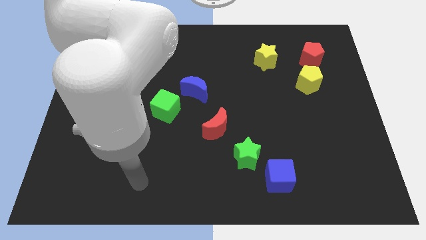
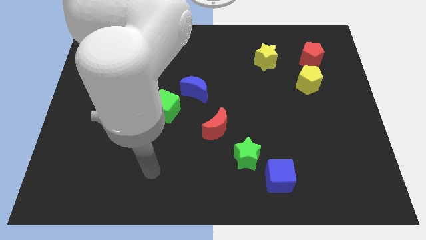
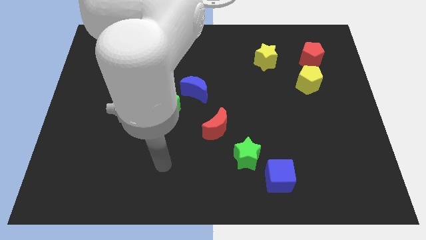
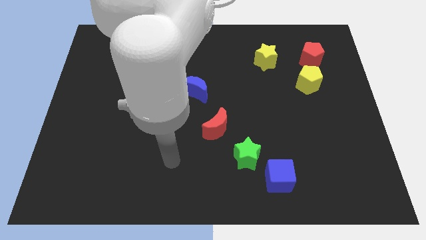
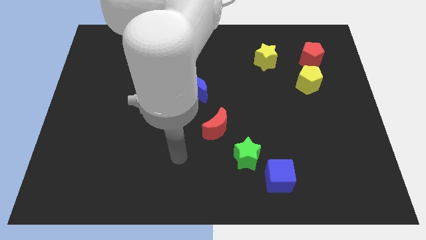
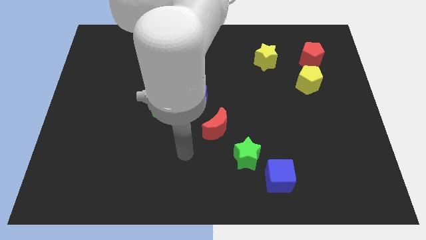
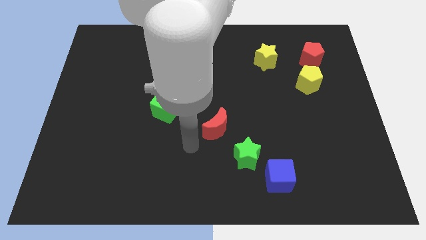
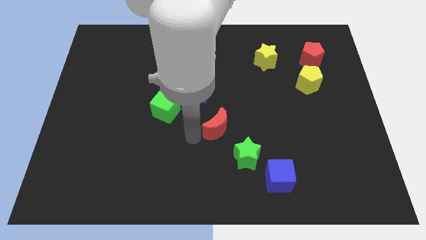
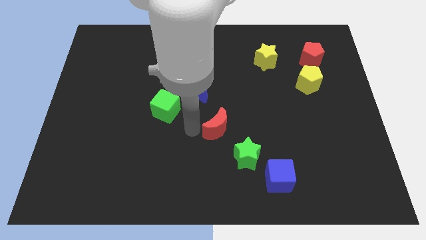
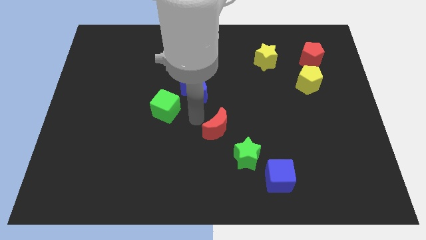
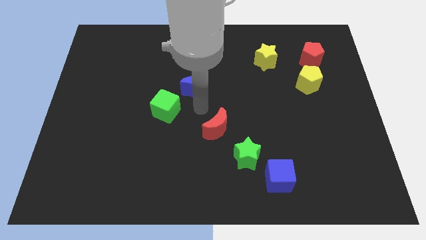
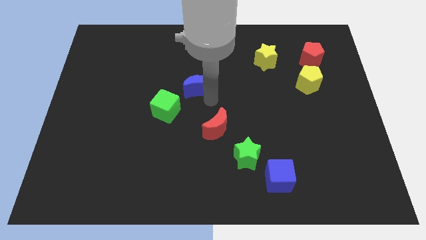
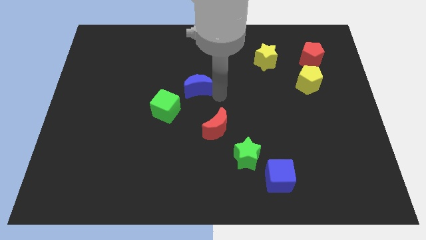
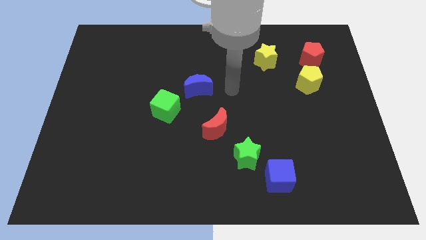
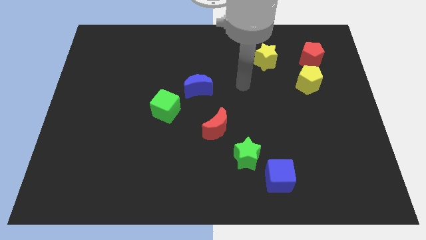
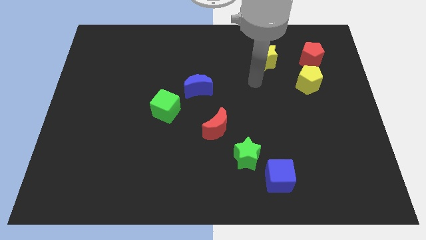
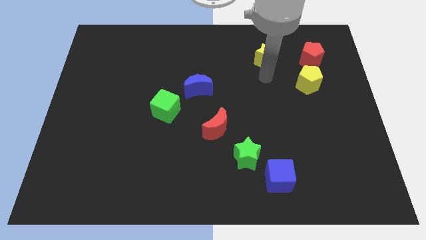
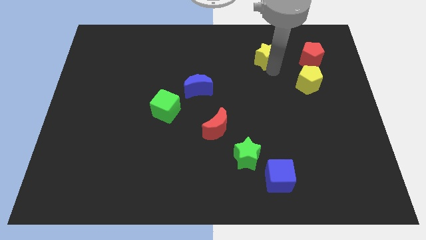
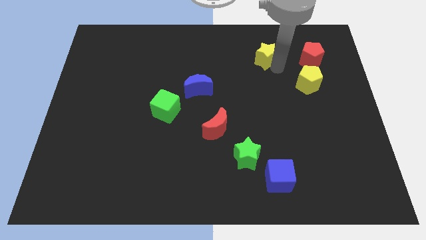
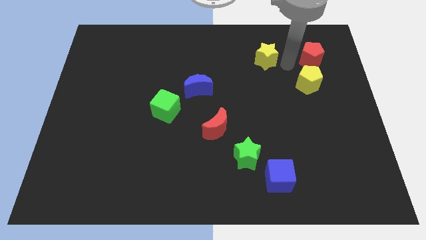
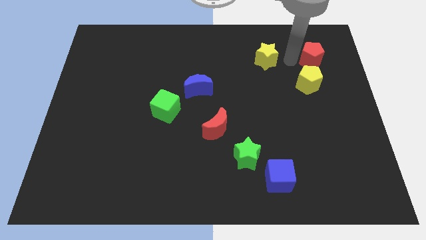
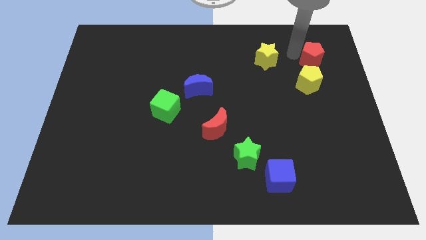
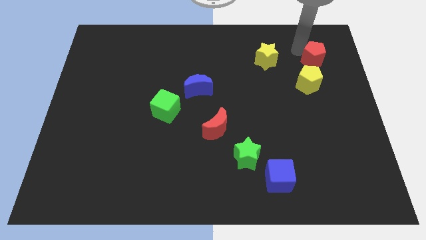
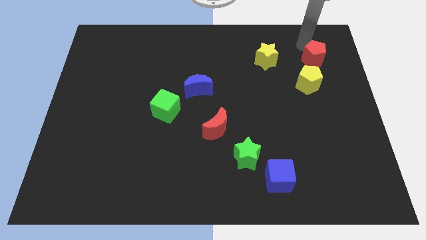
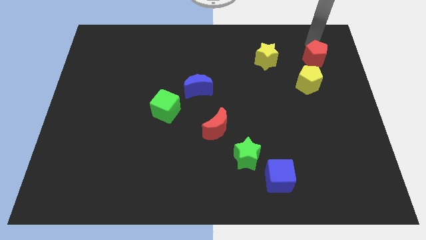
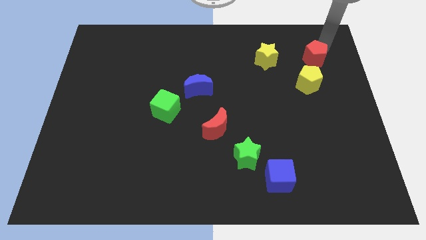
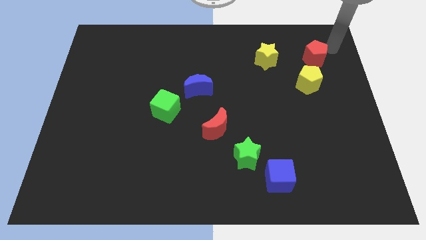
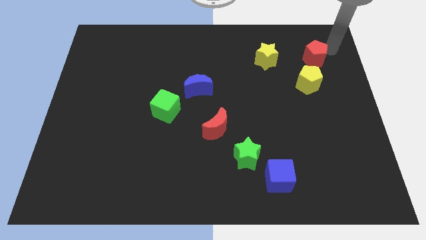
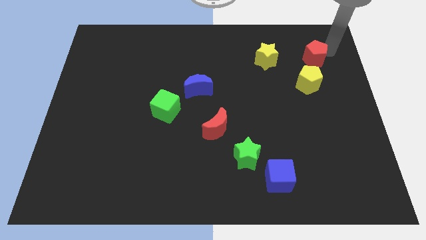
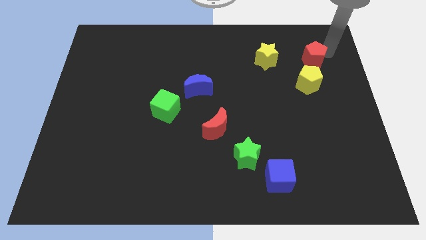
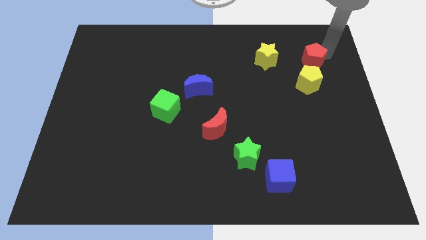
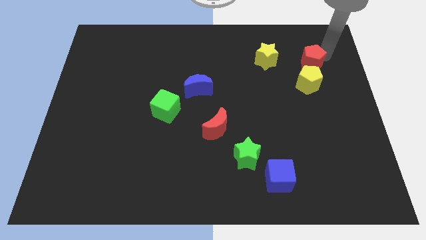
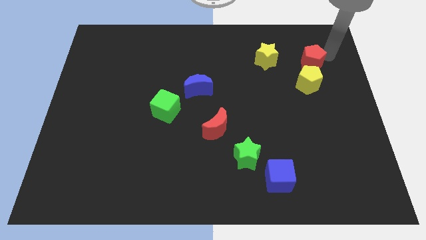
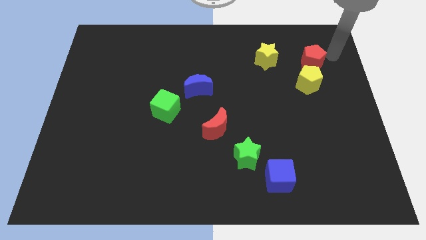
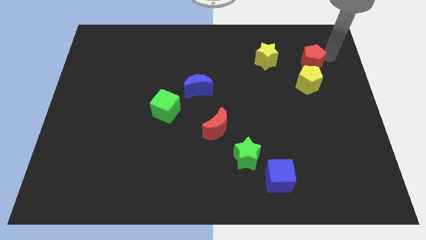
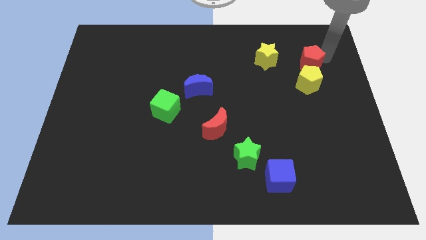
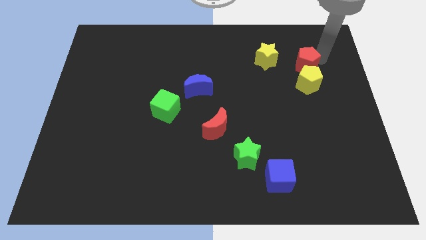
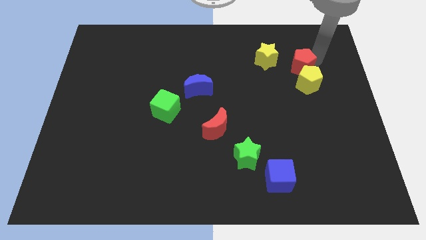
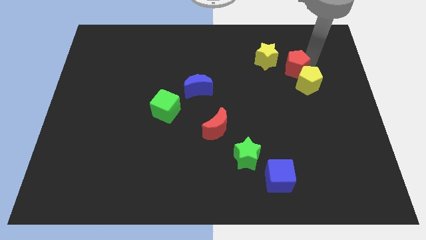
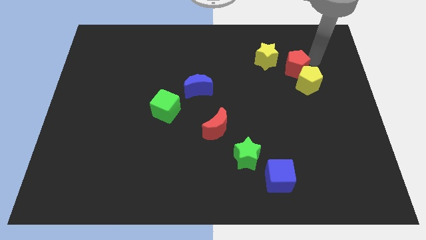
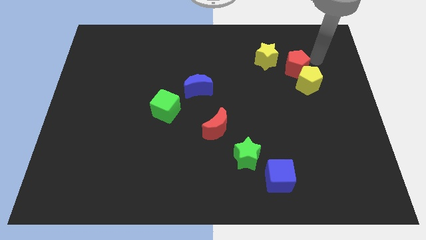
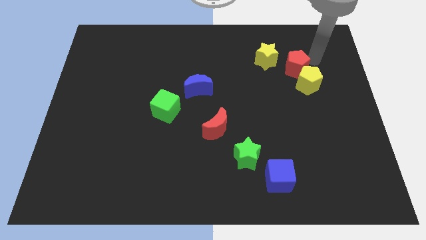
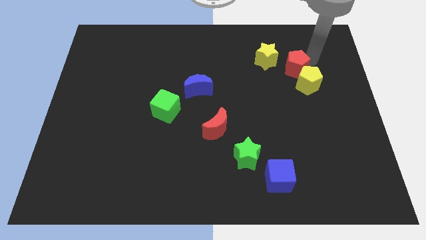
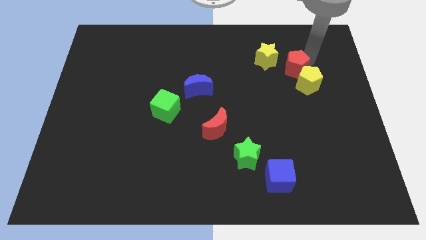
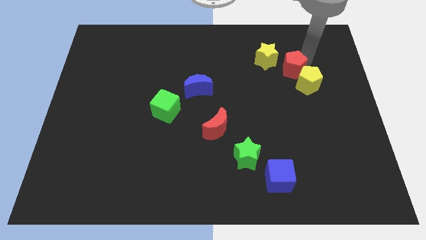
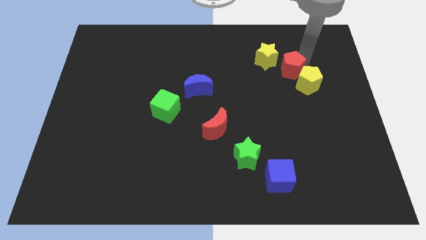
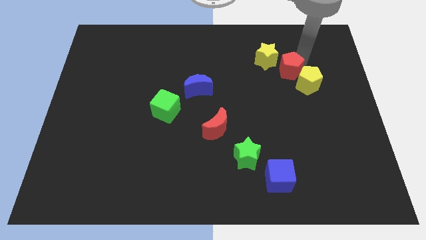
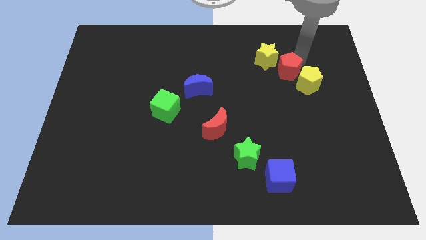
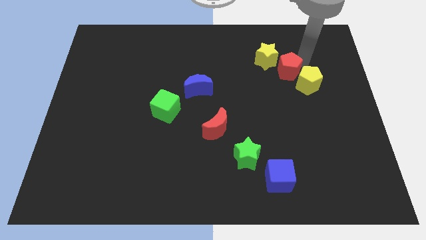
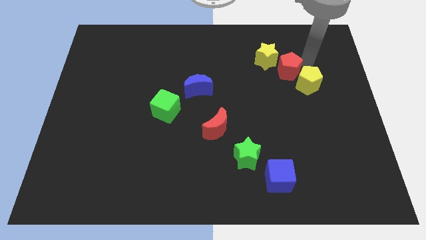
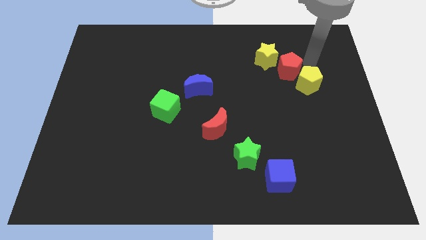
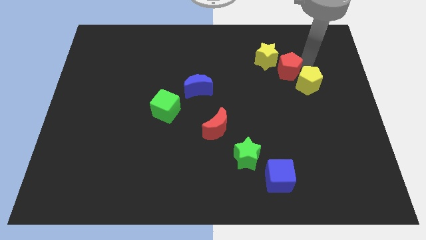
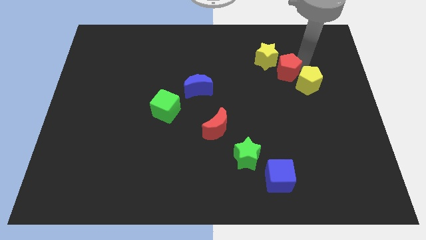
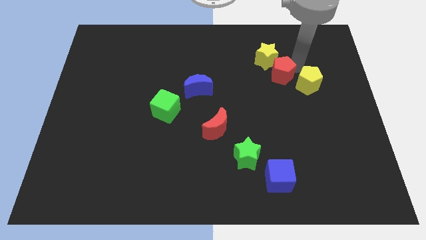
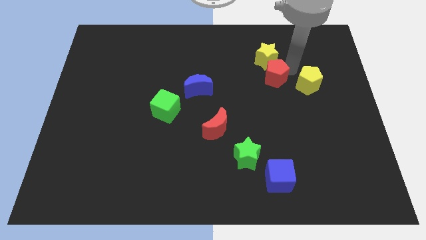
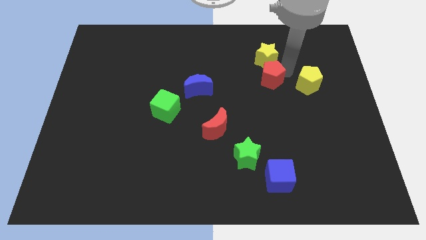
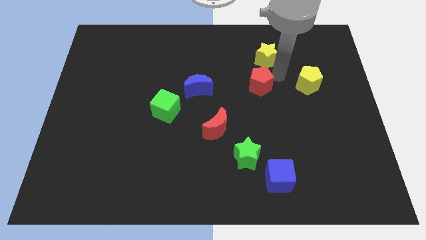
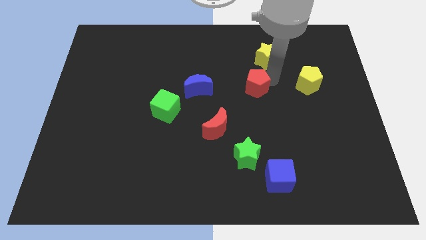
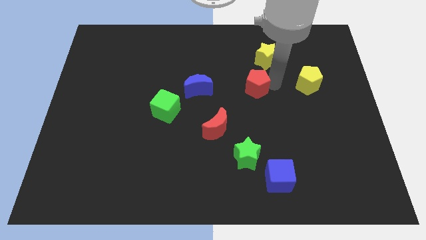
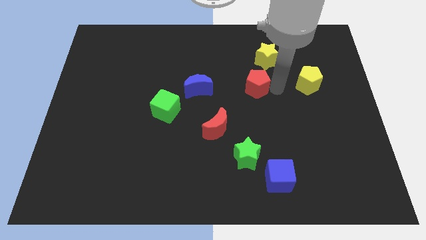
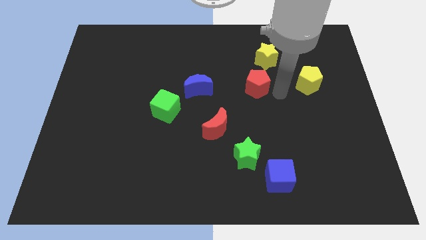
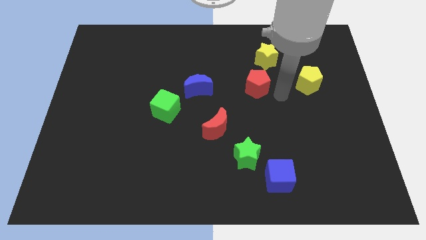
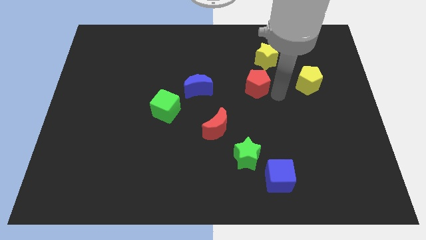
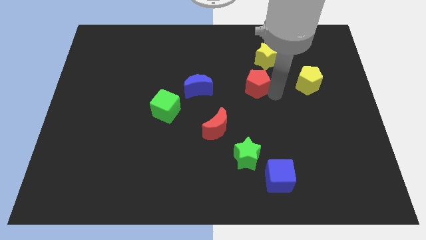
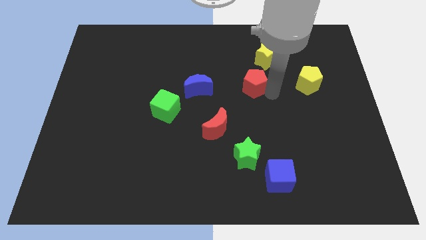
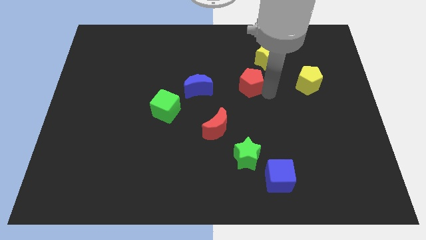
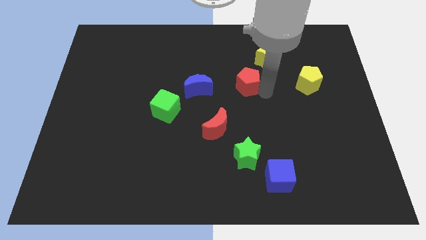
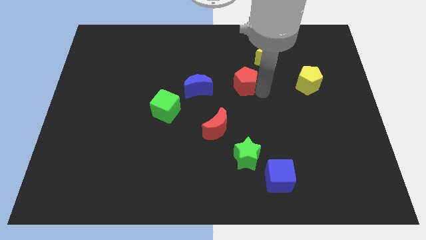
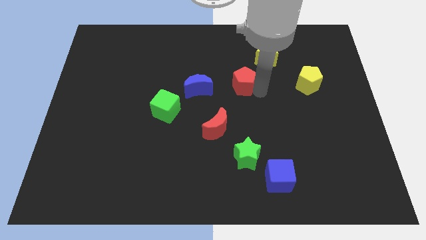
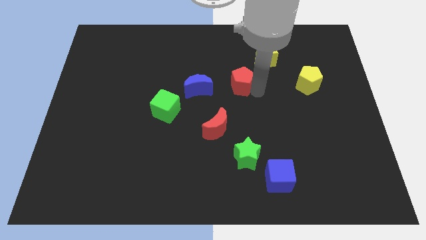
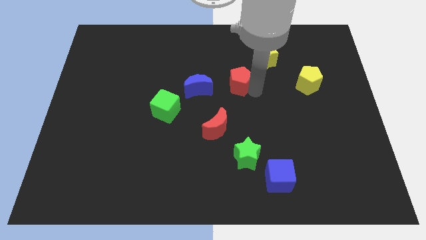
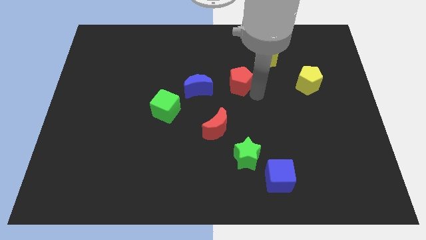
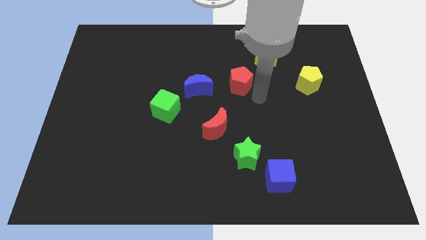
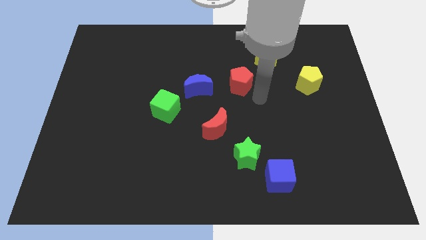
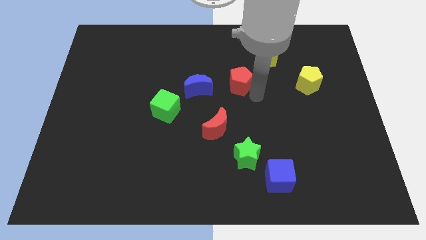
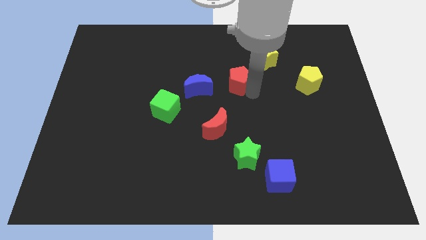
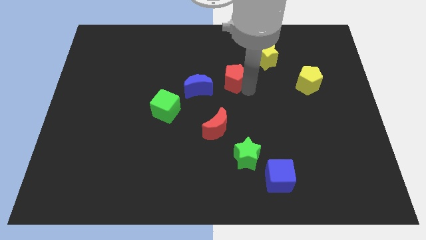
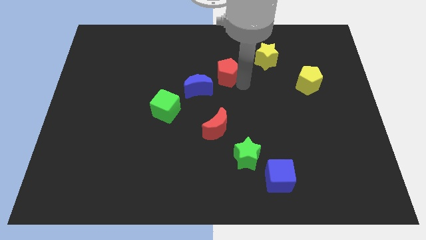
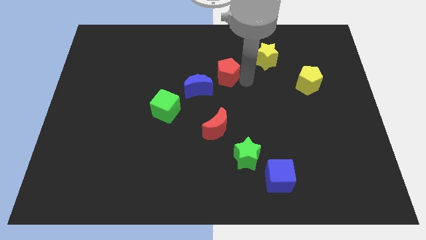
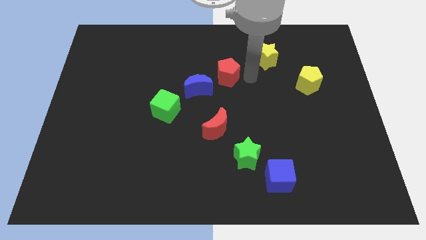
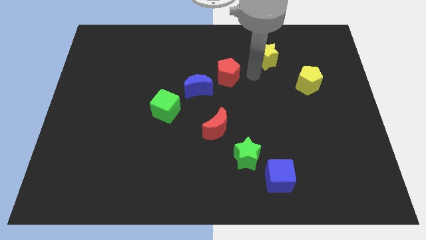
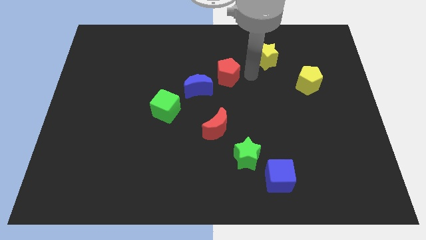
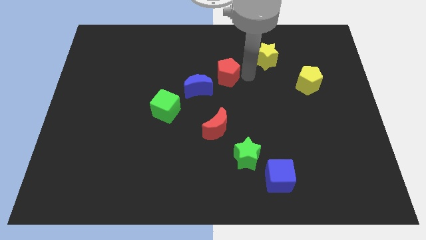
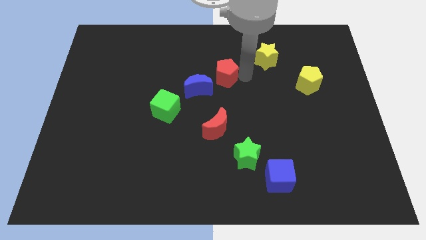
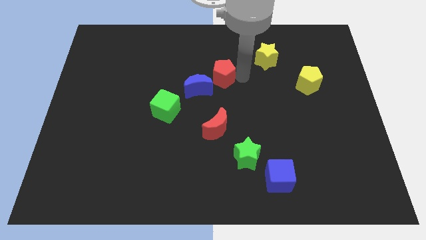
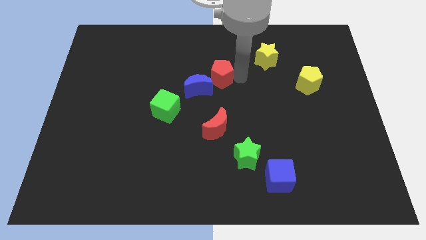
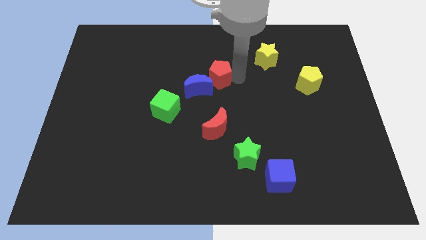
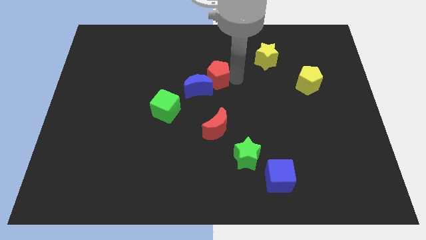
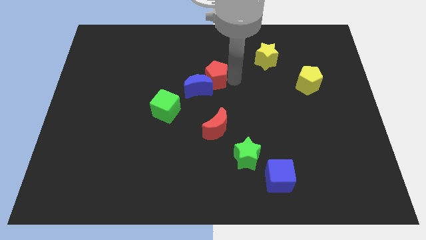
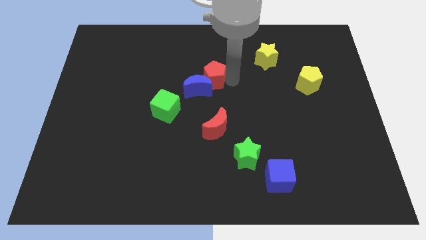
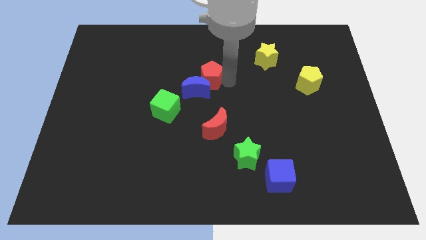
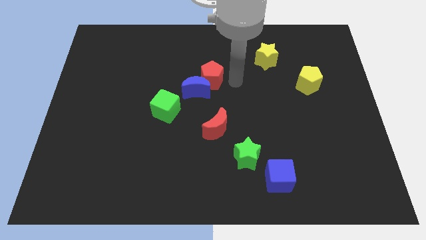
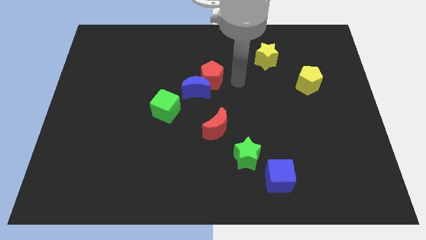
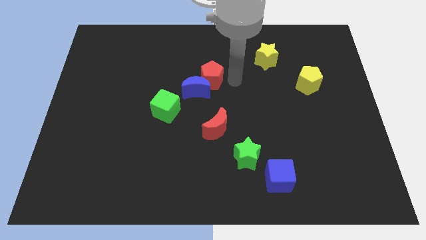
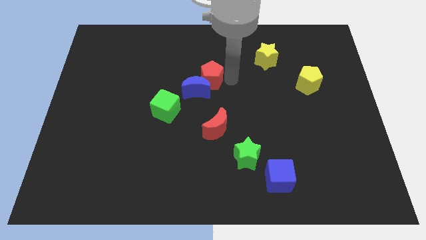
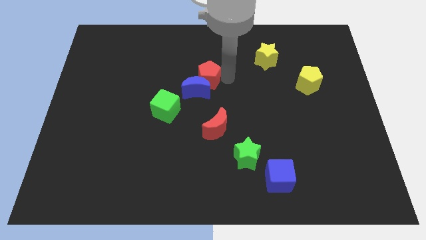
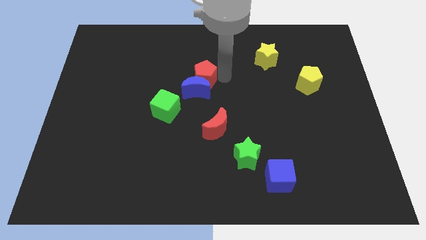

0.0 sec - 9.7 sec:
push the red pentagon to the top left of the blue moon
